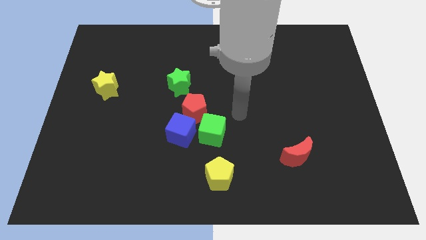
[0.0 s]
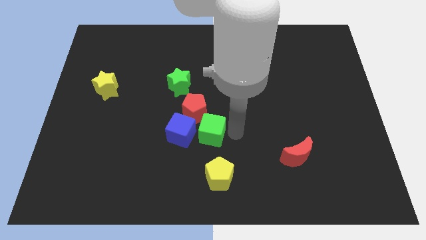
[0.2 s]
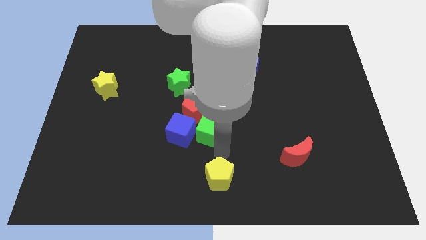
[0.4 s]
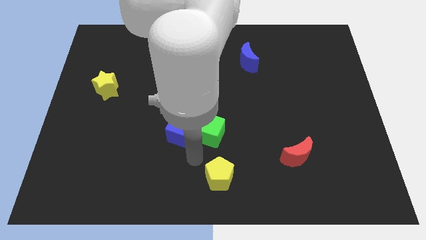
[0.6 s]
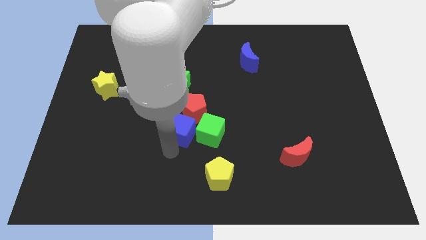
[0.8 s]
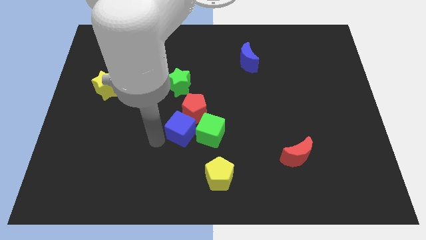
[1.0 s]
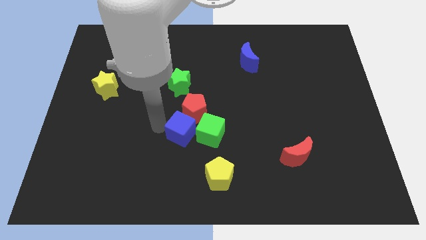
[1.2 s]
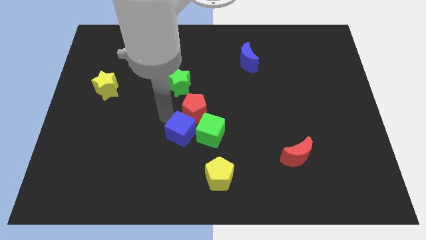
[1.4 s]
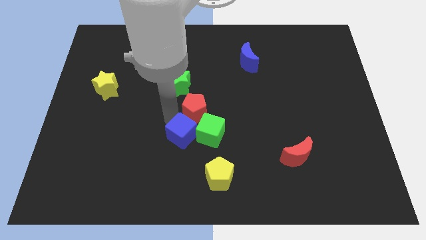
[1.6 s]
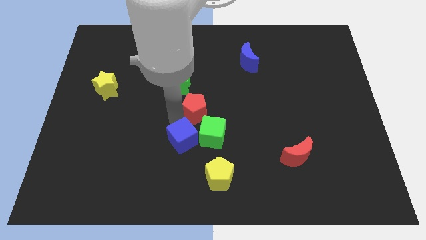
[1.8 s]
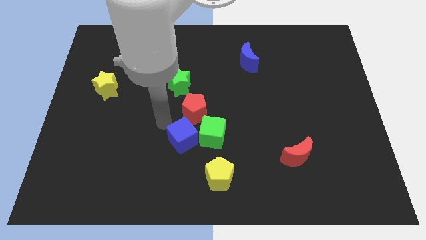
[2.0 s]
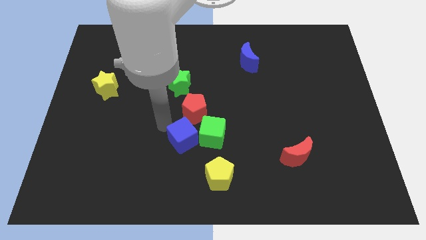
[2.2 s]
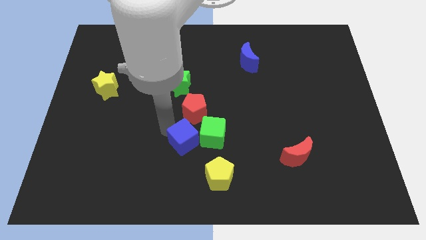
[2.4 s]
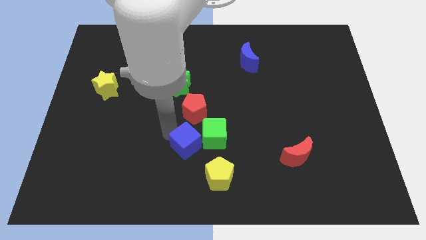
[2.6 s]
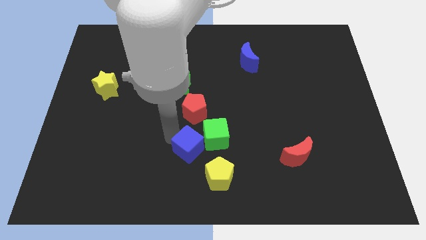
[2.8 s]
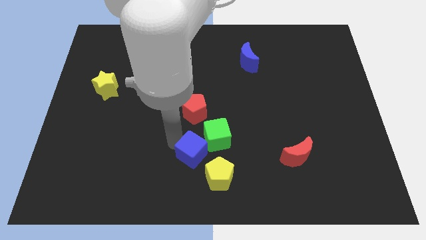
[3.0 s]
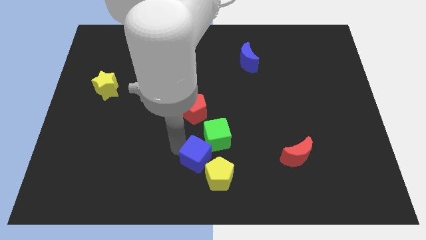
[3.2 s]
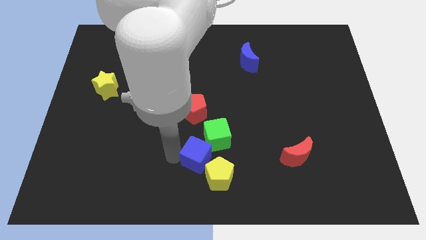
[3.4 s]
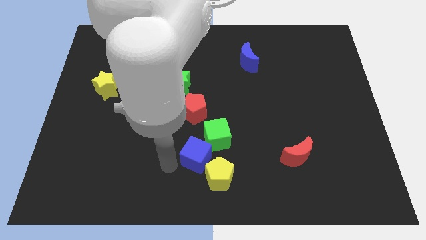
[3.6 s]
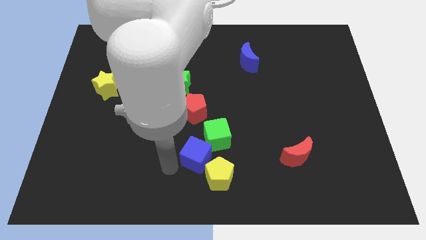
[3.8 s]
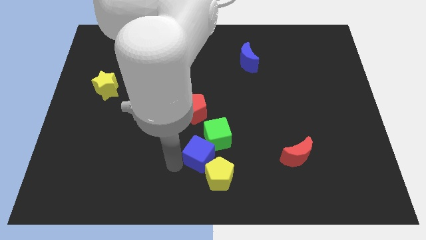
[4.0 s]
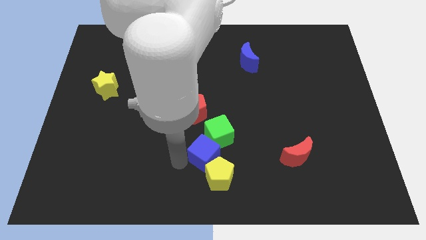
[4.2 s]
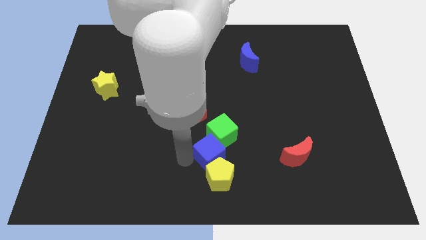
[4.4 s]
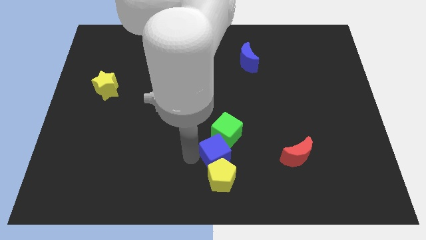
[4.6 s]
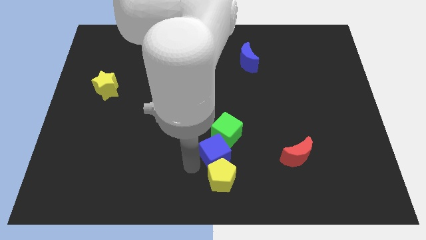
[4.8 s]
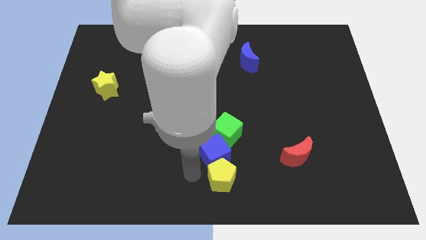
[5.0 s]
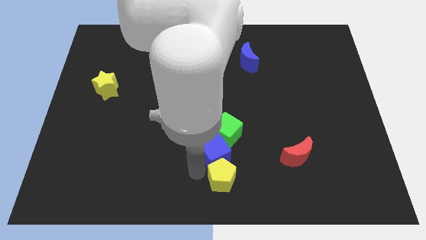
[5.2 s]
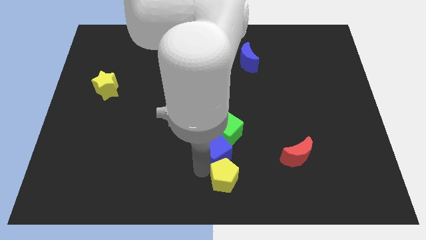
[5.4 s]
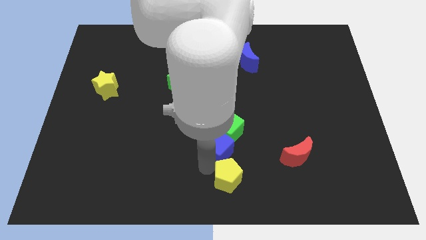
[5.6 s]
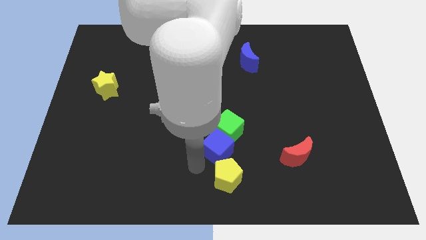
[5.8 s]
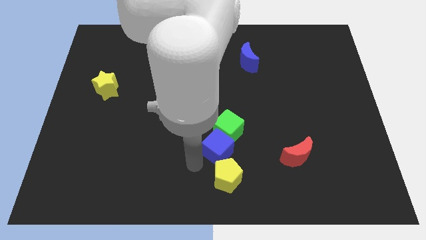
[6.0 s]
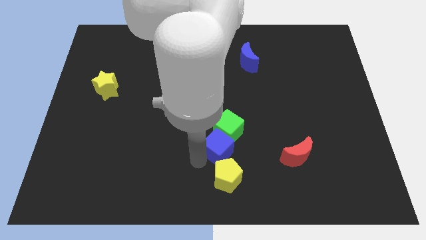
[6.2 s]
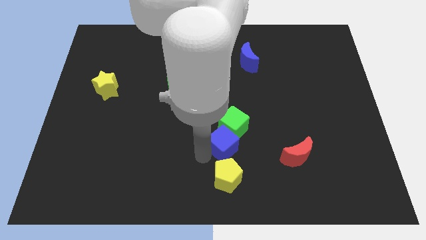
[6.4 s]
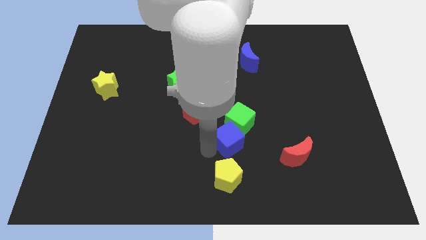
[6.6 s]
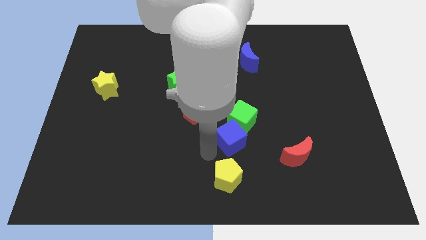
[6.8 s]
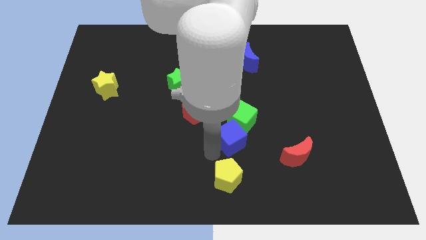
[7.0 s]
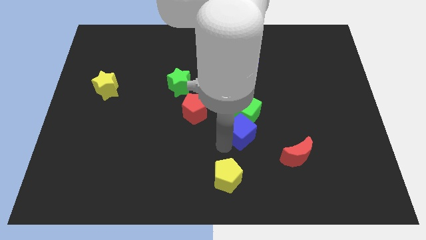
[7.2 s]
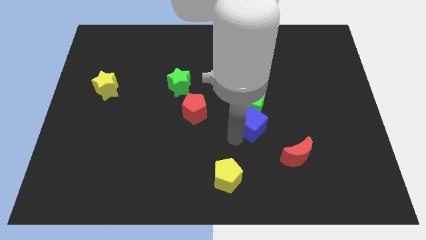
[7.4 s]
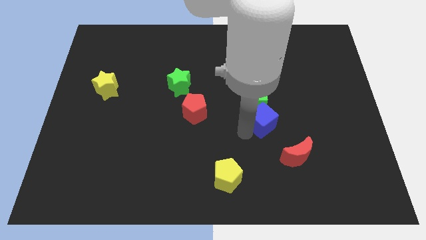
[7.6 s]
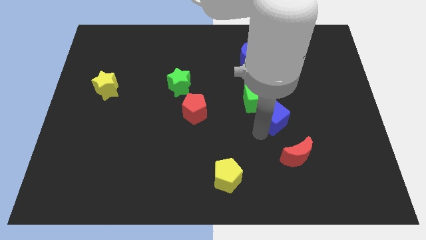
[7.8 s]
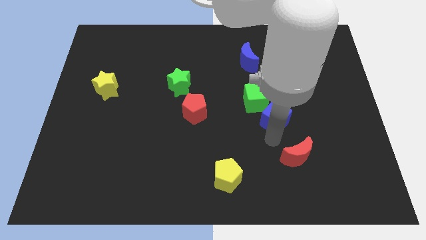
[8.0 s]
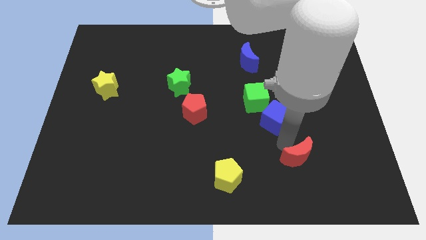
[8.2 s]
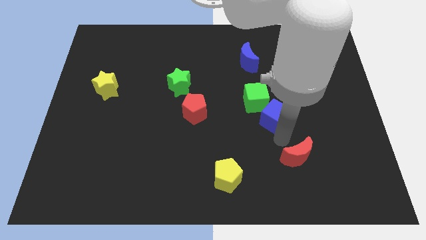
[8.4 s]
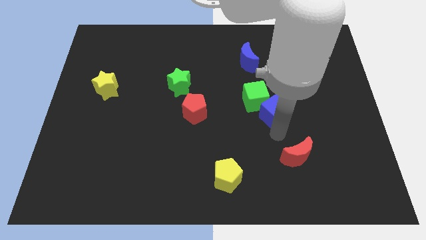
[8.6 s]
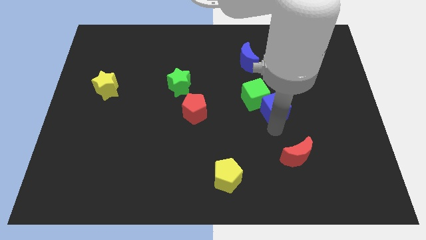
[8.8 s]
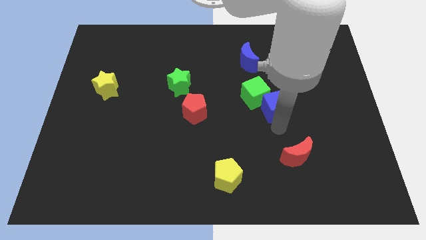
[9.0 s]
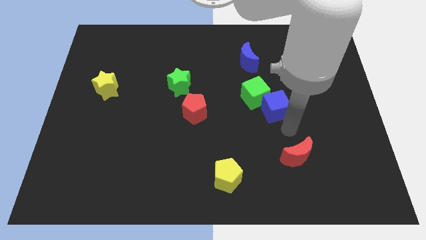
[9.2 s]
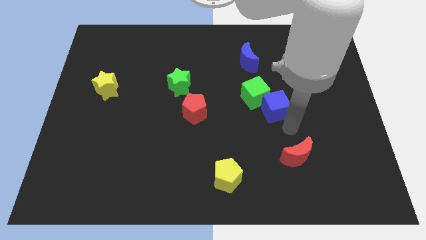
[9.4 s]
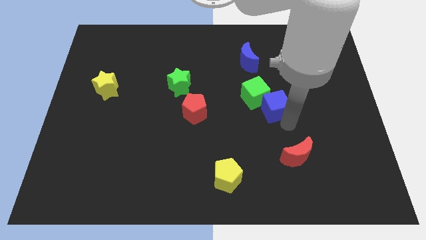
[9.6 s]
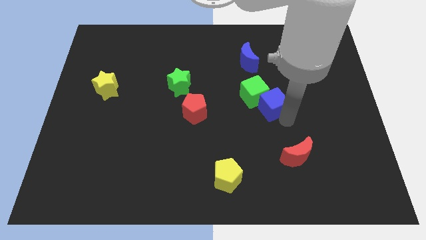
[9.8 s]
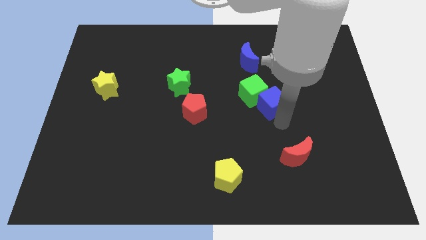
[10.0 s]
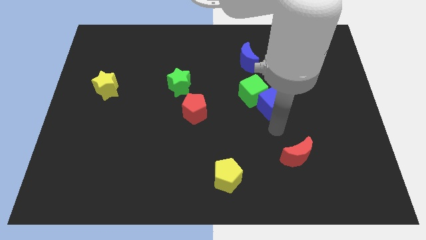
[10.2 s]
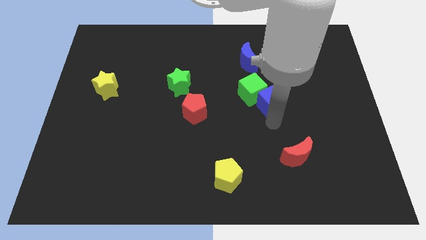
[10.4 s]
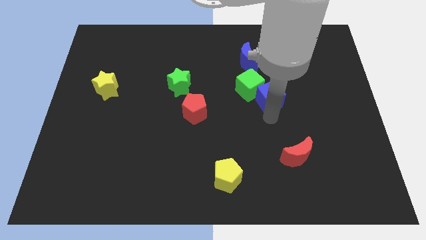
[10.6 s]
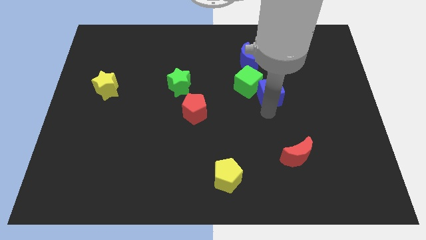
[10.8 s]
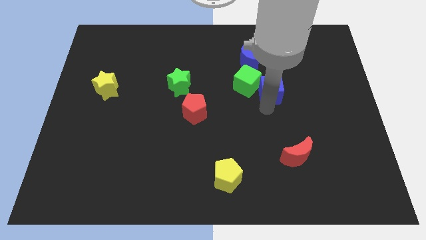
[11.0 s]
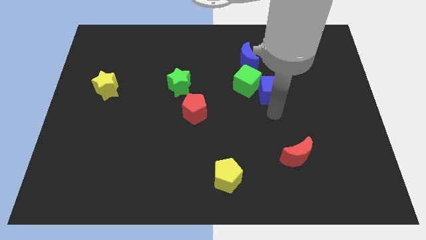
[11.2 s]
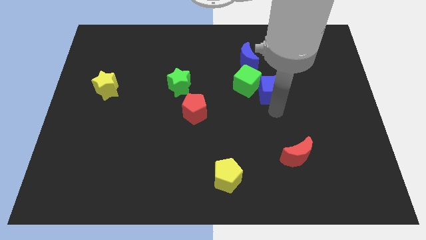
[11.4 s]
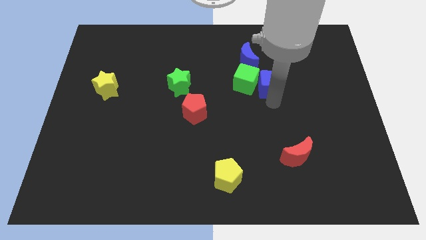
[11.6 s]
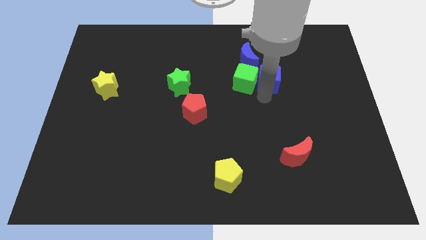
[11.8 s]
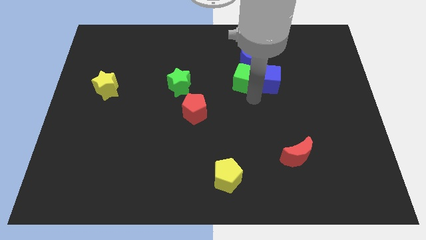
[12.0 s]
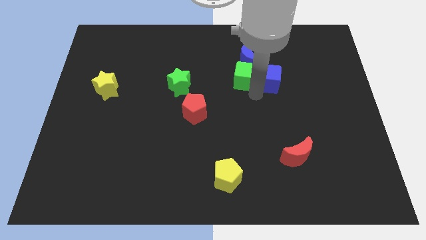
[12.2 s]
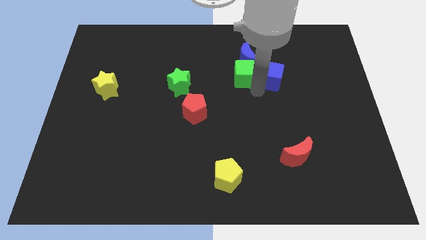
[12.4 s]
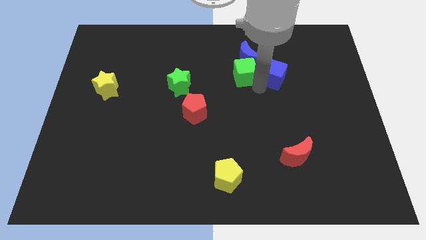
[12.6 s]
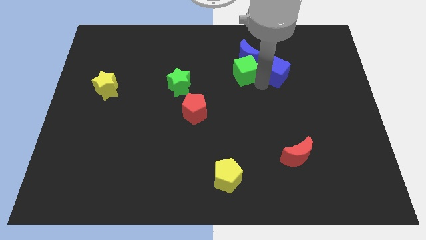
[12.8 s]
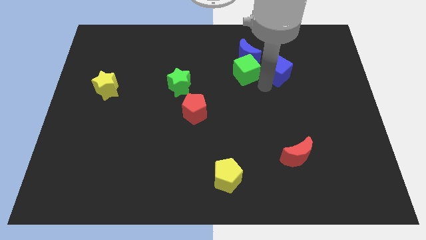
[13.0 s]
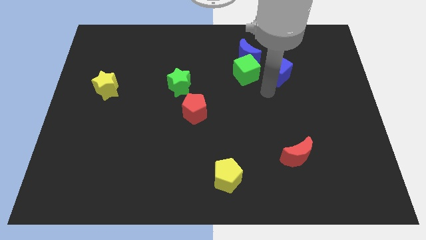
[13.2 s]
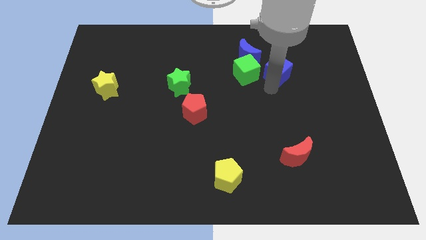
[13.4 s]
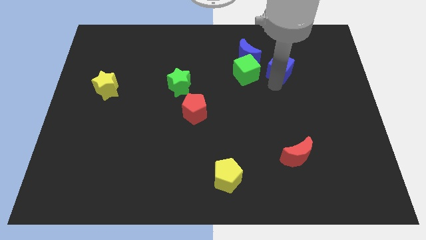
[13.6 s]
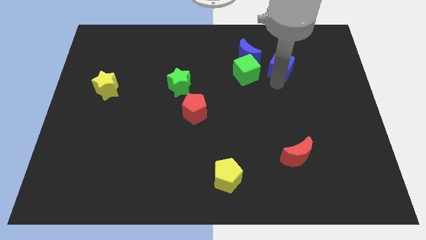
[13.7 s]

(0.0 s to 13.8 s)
push the blue cube to the right of the blue moon
